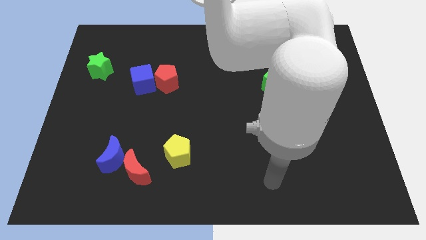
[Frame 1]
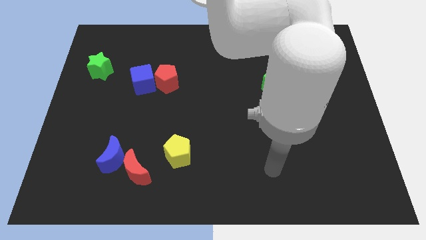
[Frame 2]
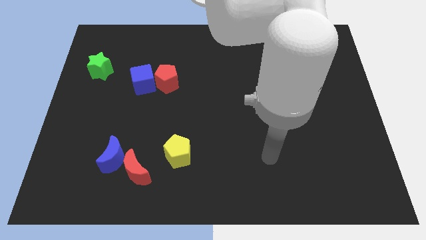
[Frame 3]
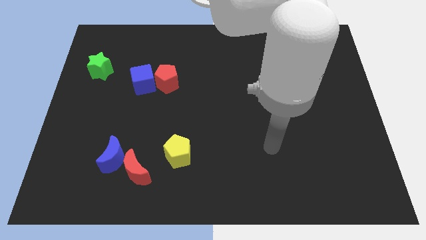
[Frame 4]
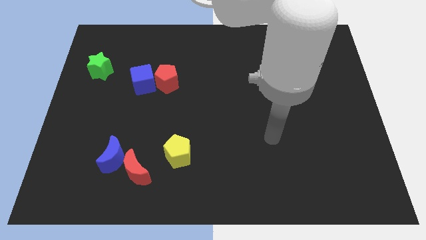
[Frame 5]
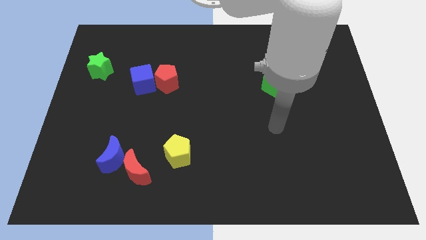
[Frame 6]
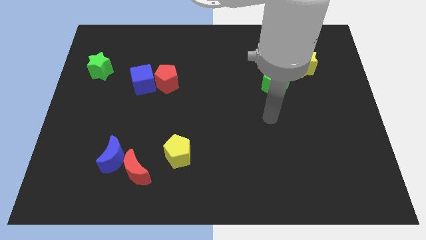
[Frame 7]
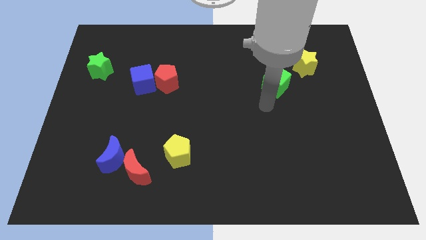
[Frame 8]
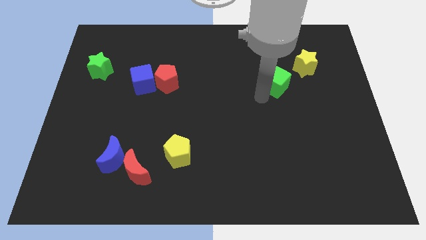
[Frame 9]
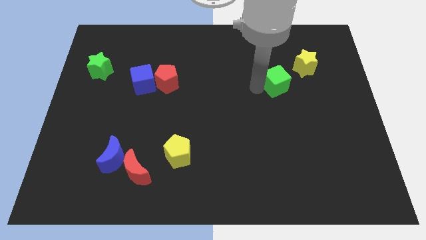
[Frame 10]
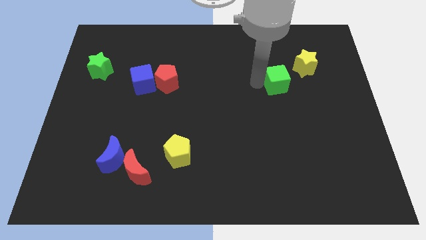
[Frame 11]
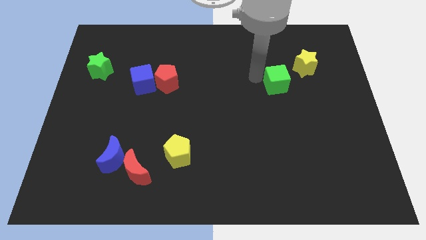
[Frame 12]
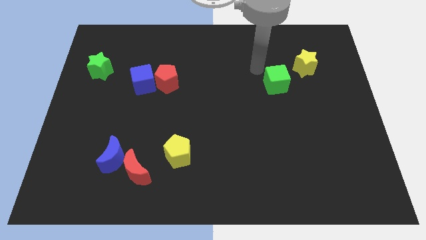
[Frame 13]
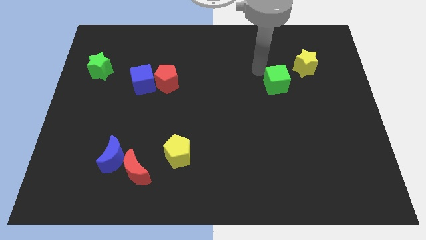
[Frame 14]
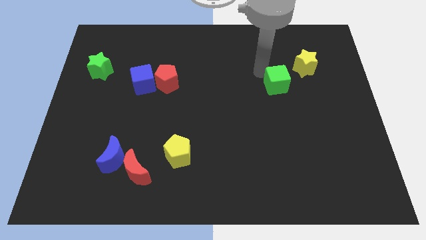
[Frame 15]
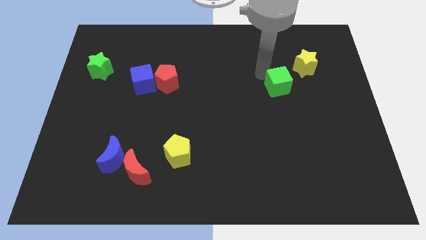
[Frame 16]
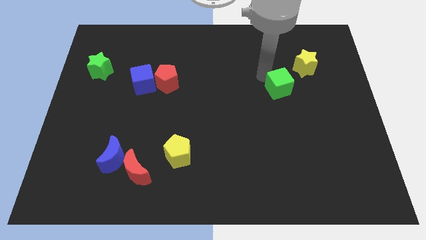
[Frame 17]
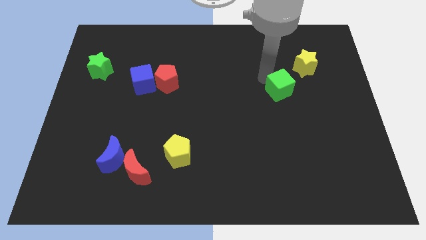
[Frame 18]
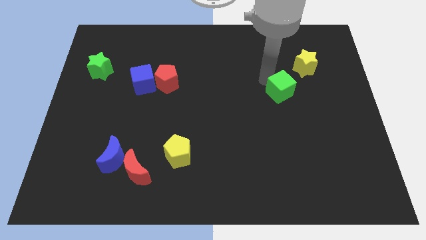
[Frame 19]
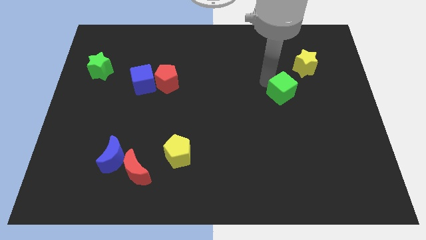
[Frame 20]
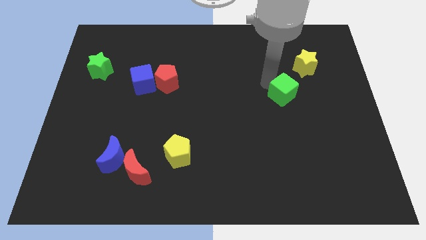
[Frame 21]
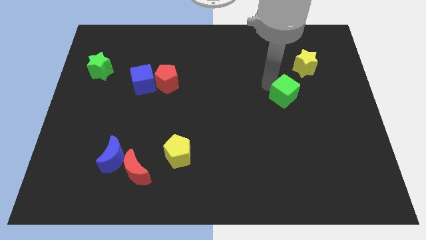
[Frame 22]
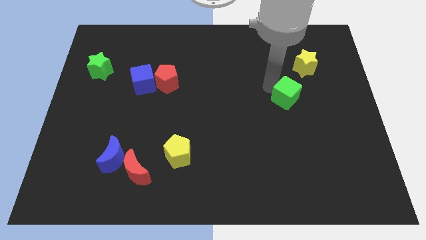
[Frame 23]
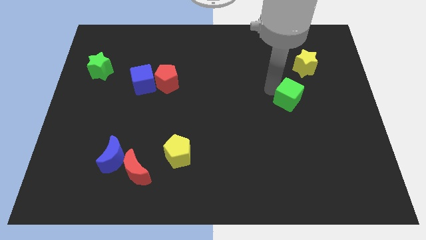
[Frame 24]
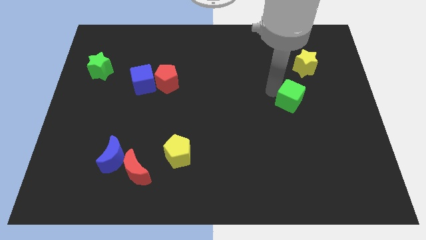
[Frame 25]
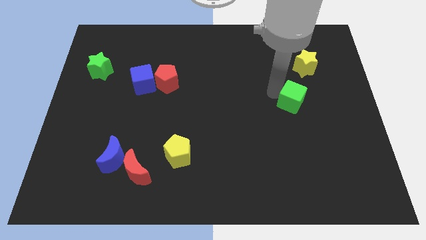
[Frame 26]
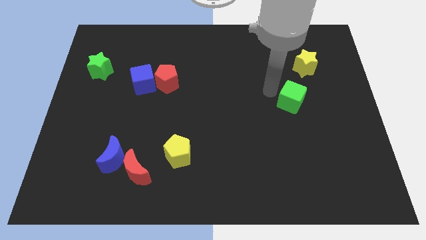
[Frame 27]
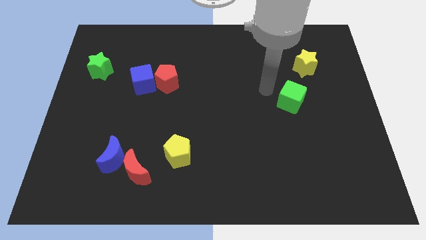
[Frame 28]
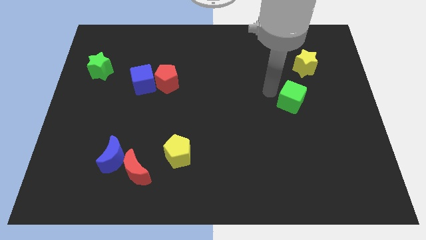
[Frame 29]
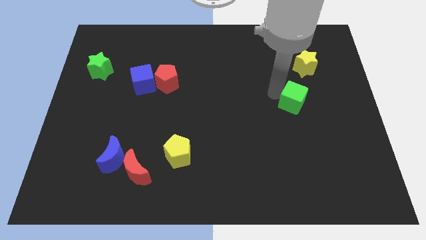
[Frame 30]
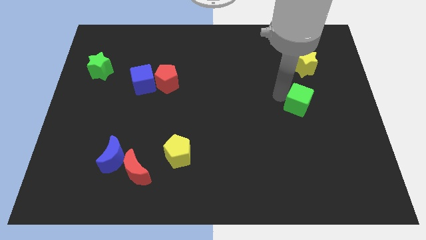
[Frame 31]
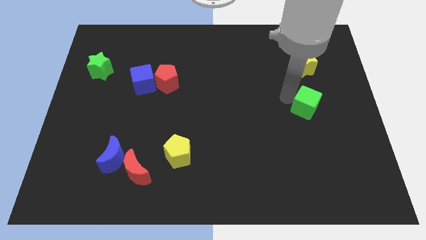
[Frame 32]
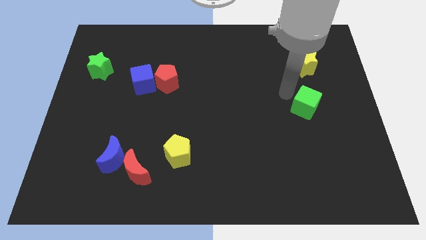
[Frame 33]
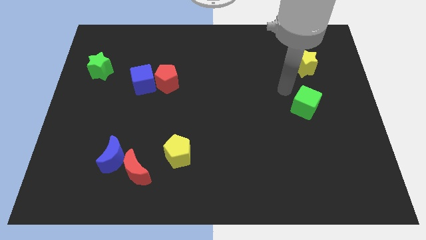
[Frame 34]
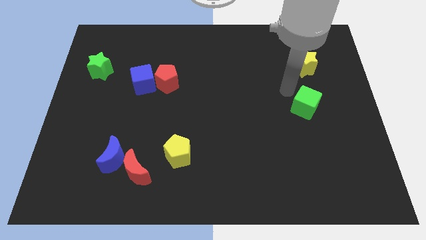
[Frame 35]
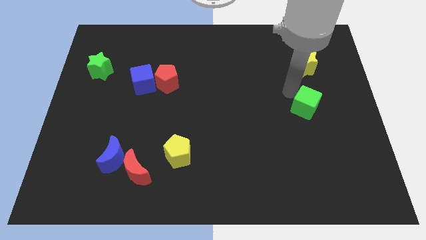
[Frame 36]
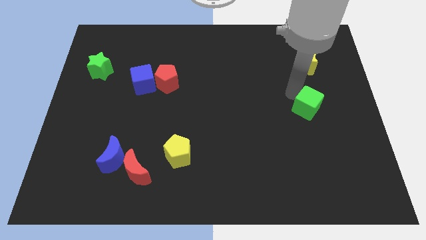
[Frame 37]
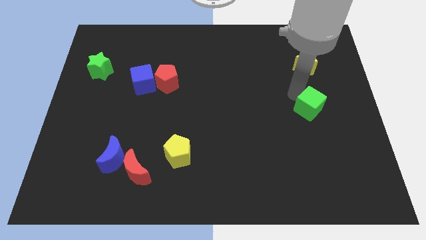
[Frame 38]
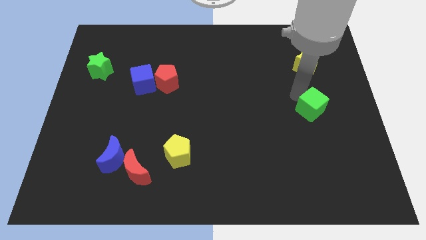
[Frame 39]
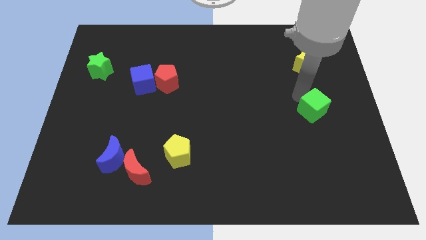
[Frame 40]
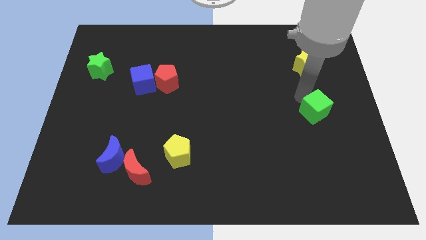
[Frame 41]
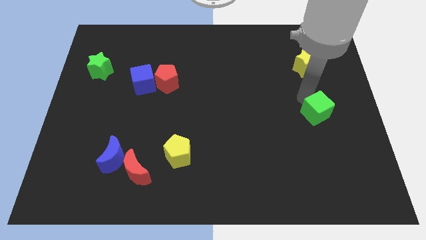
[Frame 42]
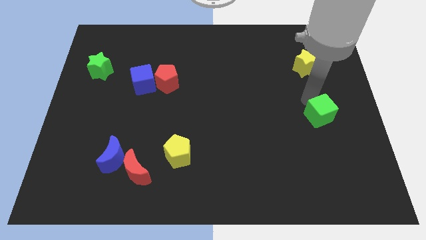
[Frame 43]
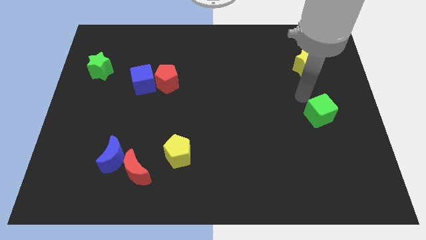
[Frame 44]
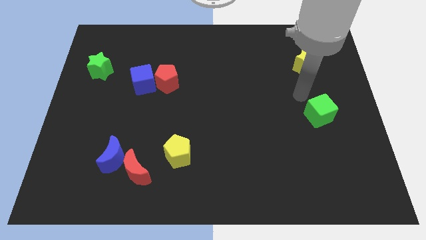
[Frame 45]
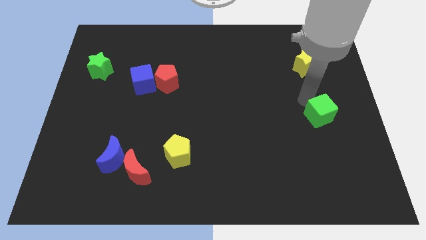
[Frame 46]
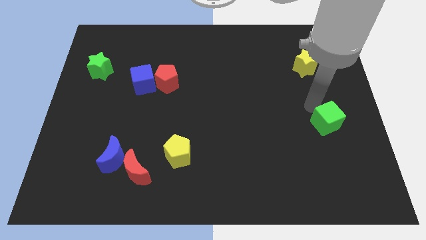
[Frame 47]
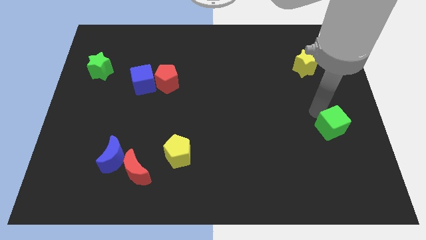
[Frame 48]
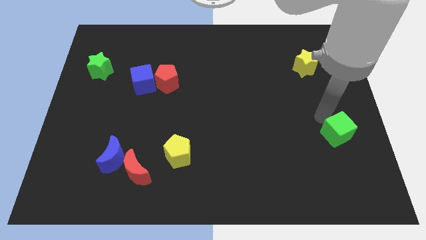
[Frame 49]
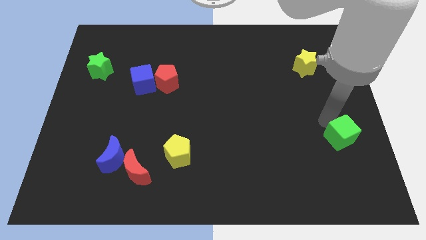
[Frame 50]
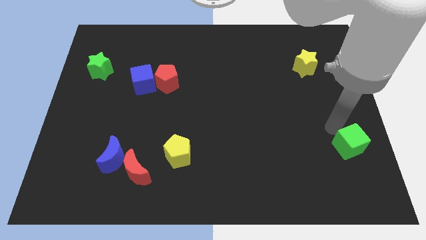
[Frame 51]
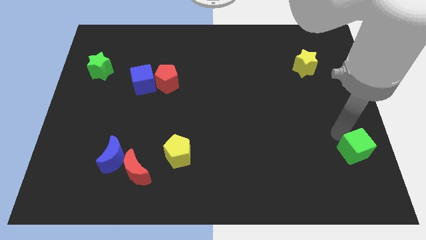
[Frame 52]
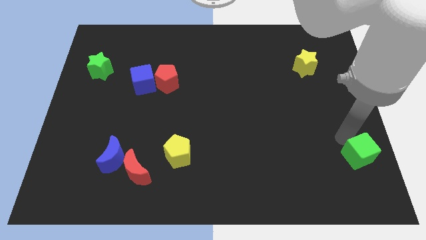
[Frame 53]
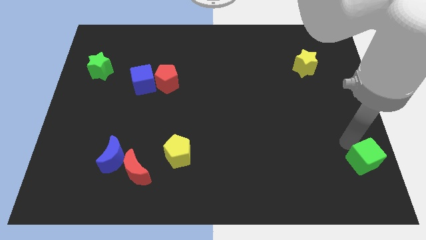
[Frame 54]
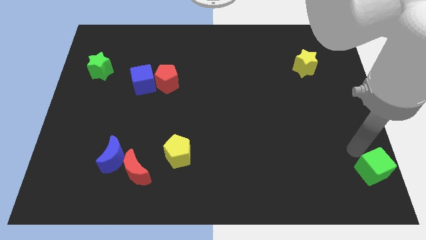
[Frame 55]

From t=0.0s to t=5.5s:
push the green cube to the bottom right of the board

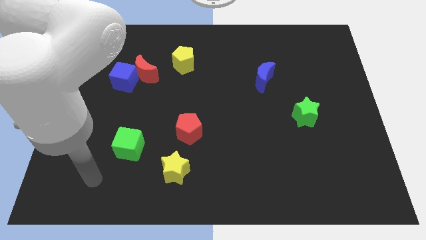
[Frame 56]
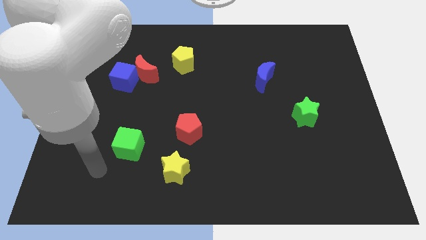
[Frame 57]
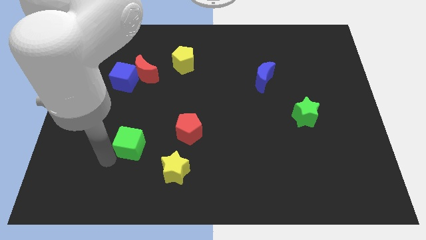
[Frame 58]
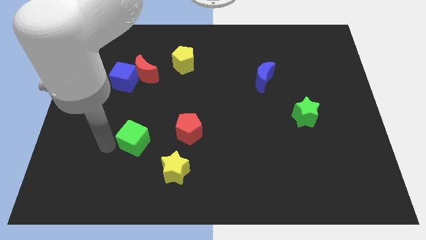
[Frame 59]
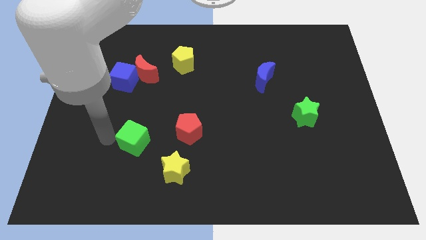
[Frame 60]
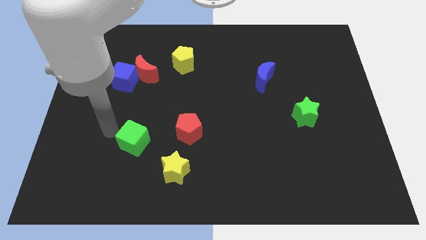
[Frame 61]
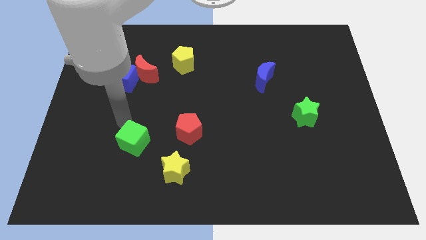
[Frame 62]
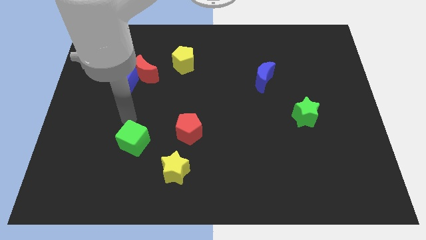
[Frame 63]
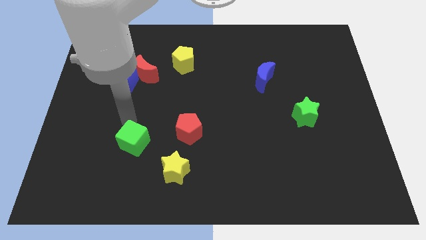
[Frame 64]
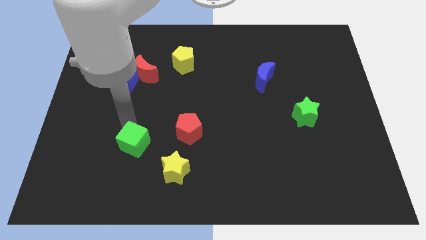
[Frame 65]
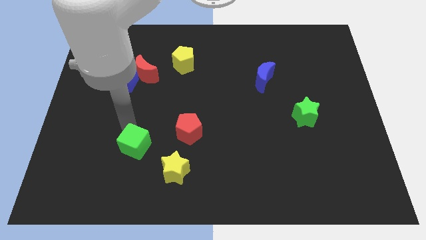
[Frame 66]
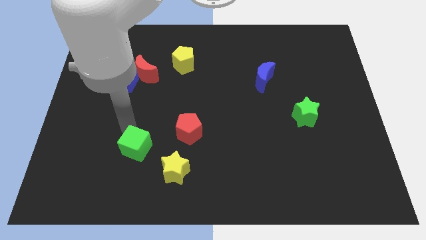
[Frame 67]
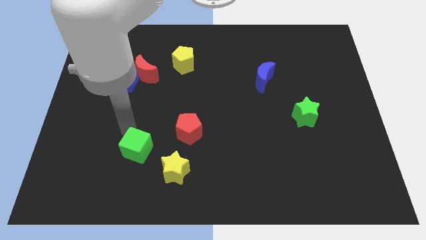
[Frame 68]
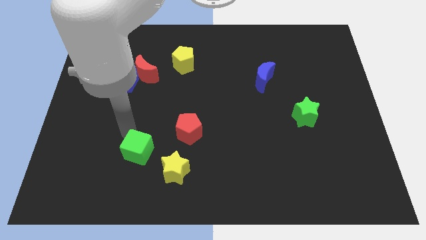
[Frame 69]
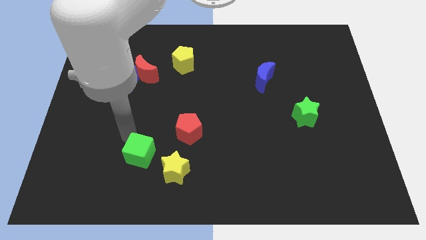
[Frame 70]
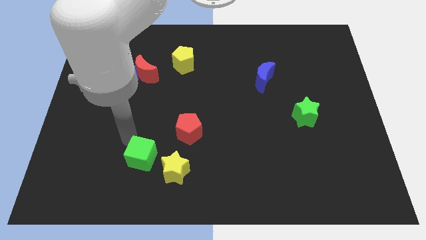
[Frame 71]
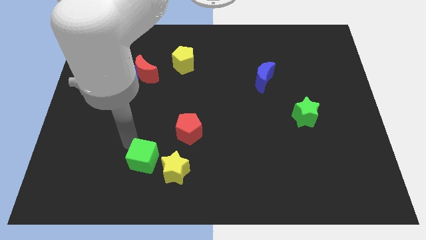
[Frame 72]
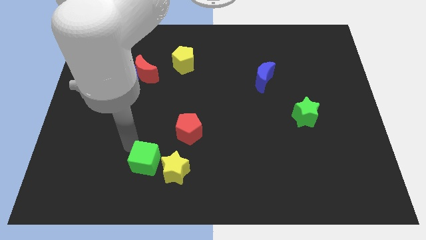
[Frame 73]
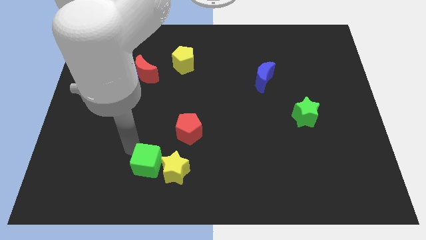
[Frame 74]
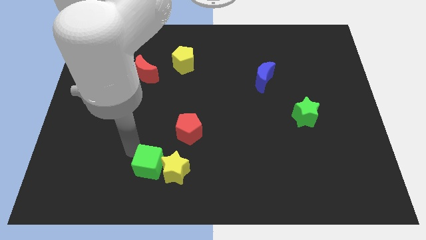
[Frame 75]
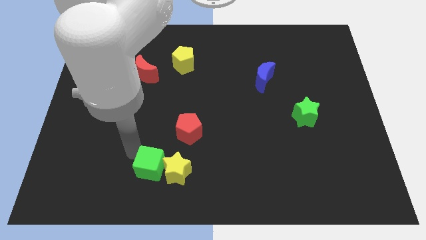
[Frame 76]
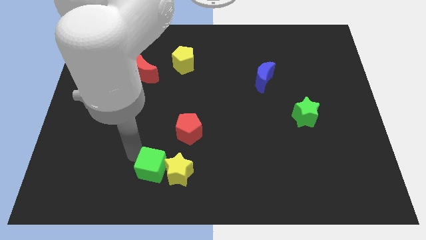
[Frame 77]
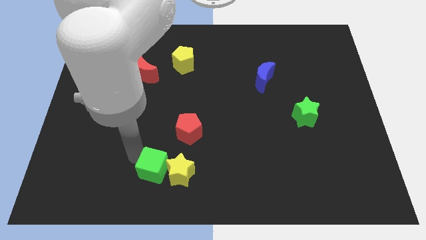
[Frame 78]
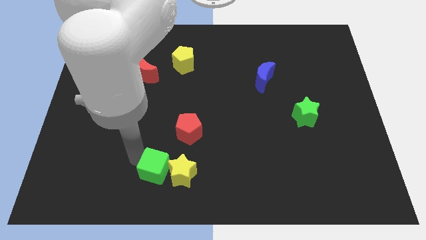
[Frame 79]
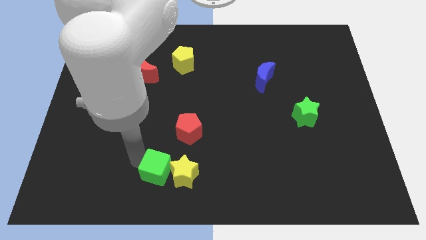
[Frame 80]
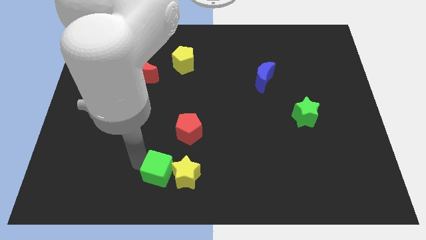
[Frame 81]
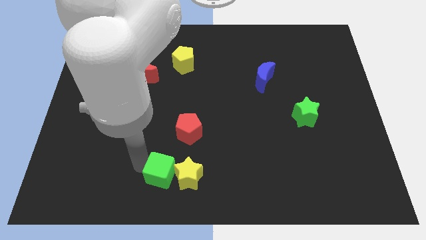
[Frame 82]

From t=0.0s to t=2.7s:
push the green cube to the bottom side
